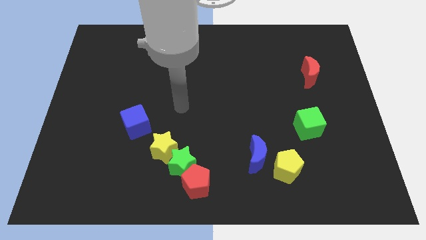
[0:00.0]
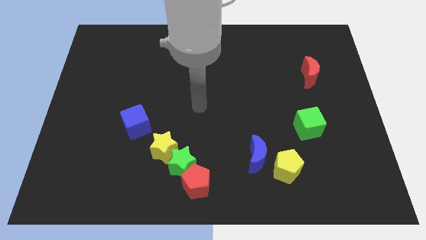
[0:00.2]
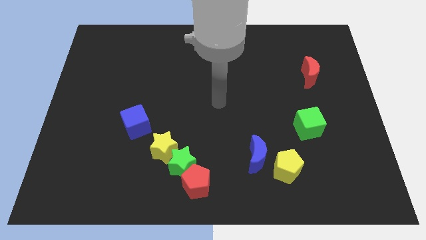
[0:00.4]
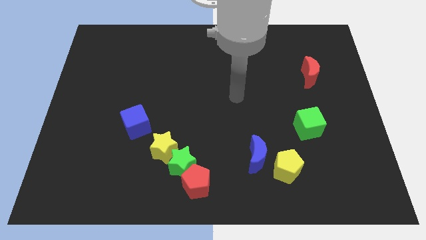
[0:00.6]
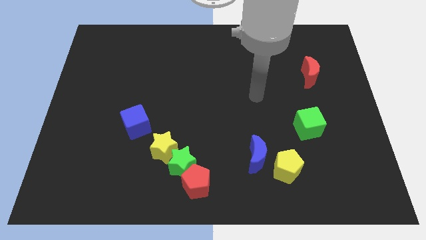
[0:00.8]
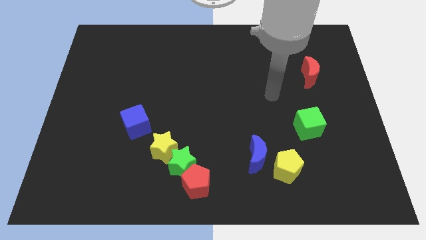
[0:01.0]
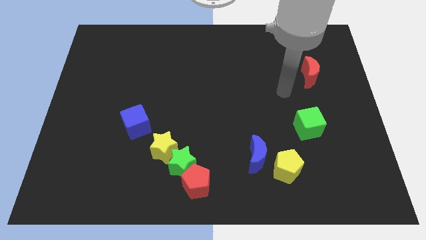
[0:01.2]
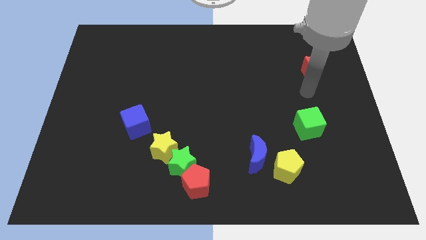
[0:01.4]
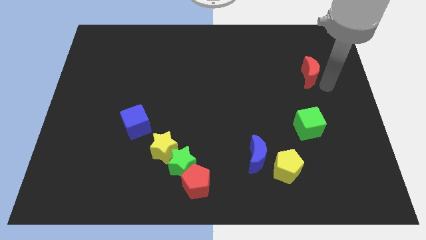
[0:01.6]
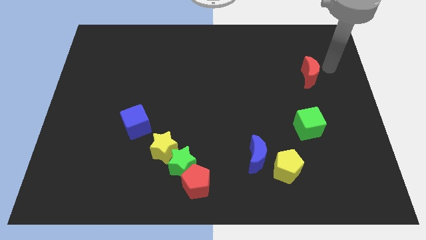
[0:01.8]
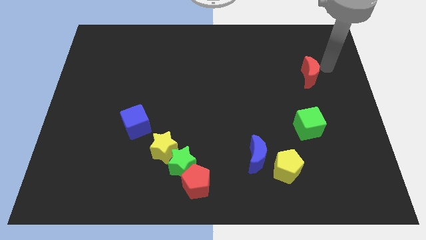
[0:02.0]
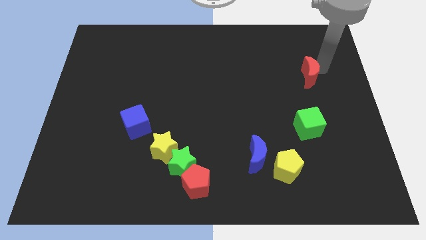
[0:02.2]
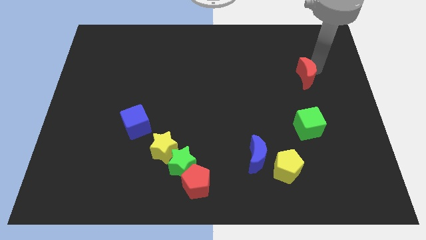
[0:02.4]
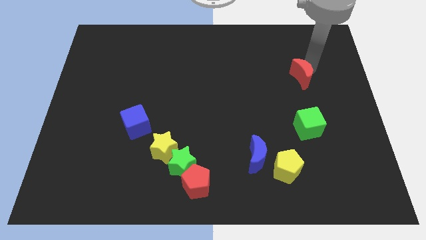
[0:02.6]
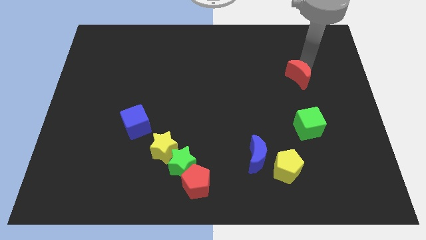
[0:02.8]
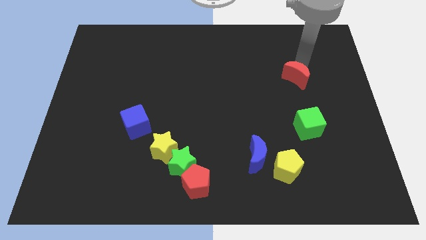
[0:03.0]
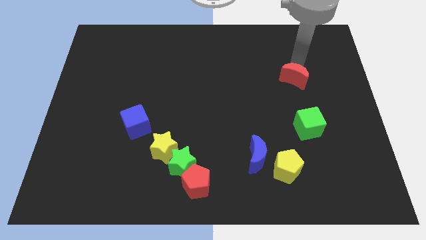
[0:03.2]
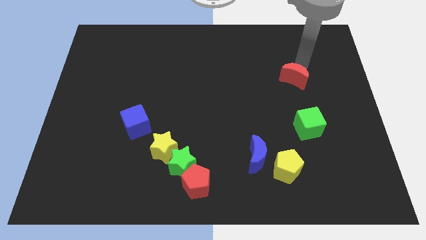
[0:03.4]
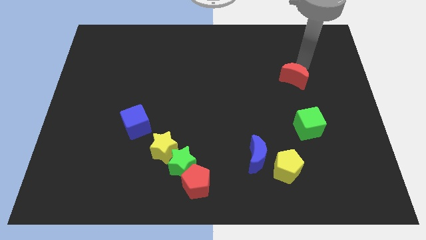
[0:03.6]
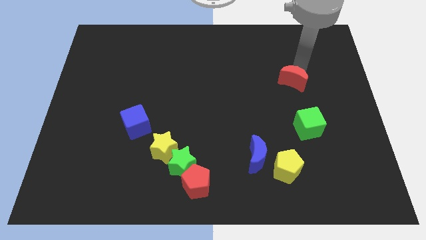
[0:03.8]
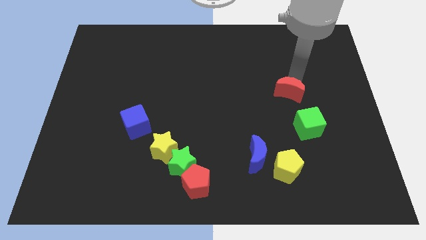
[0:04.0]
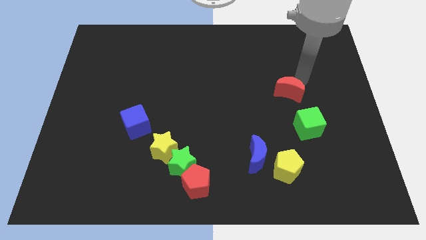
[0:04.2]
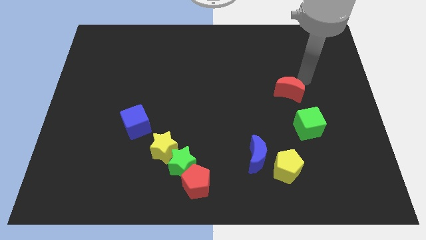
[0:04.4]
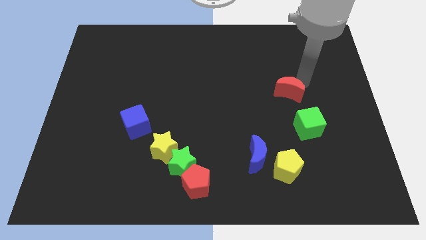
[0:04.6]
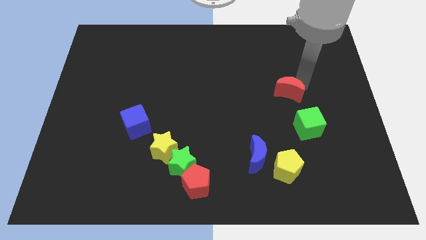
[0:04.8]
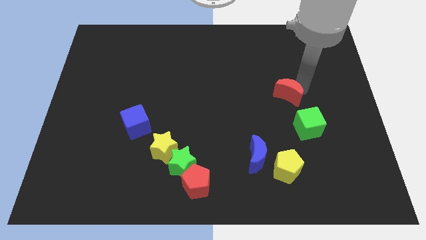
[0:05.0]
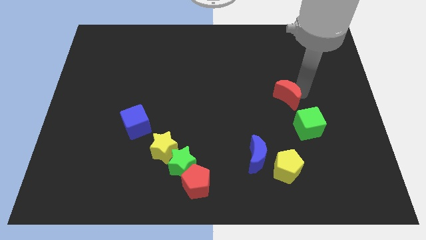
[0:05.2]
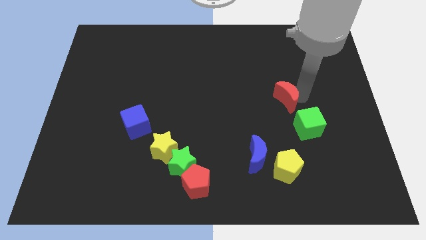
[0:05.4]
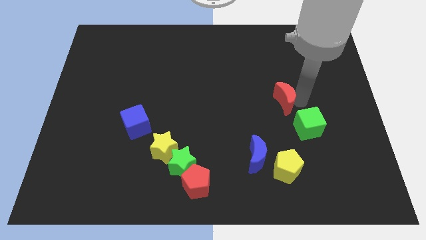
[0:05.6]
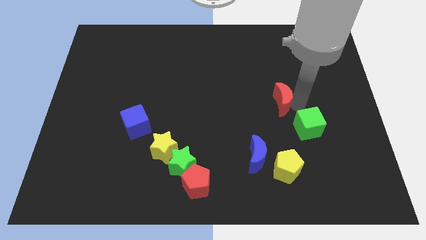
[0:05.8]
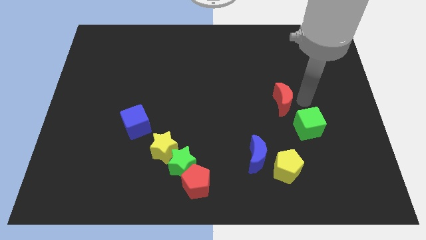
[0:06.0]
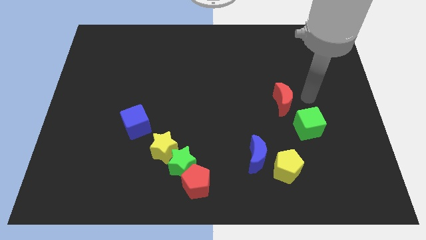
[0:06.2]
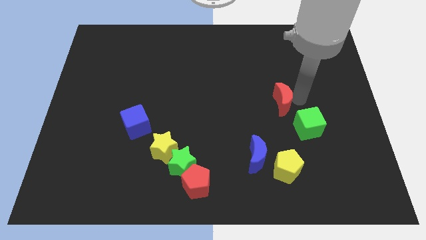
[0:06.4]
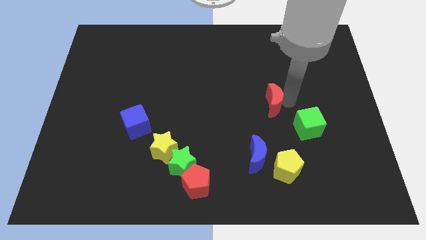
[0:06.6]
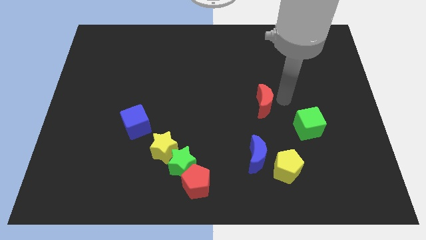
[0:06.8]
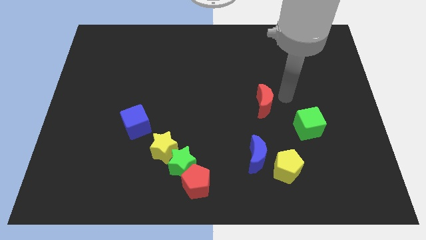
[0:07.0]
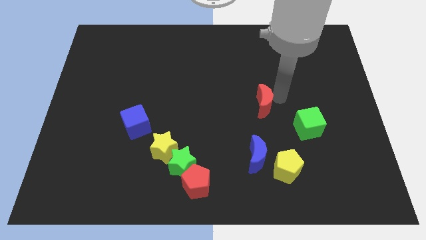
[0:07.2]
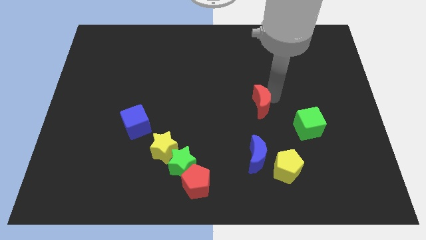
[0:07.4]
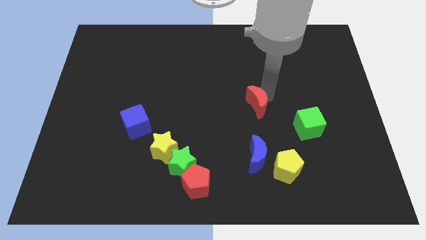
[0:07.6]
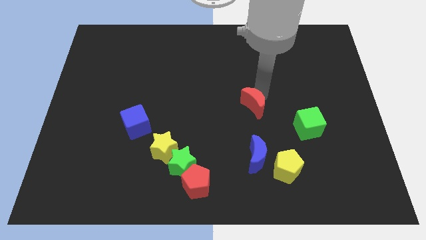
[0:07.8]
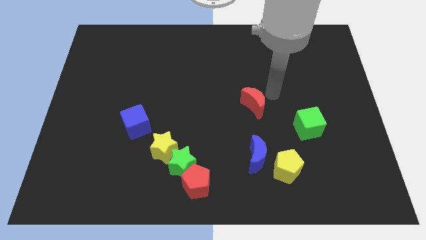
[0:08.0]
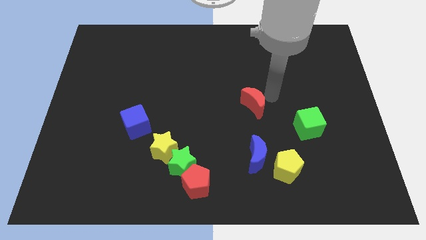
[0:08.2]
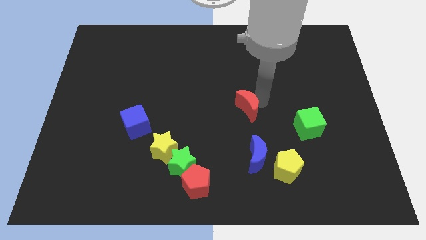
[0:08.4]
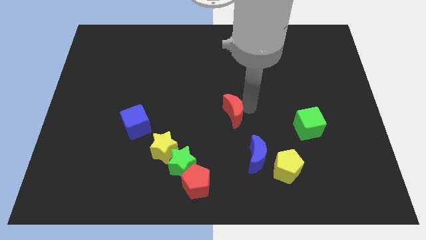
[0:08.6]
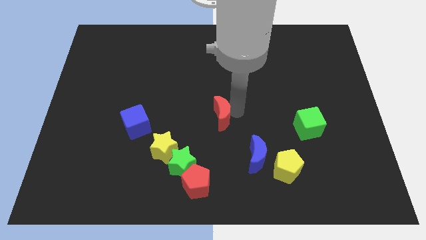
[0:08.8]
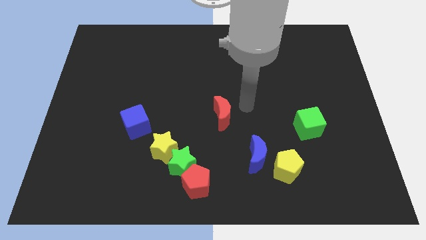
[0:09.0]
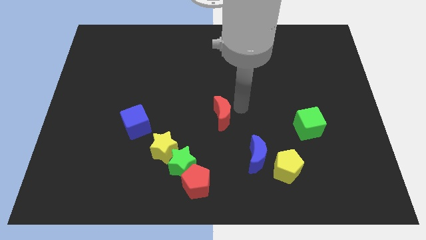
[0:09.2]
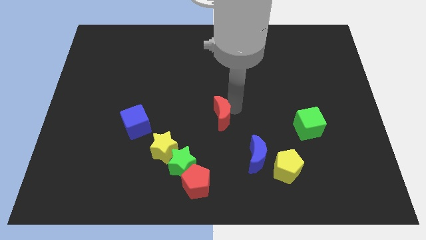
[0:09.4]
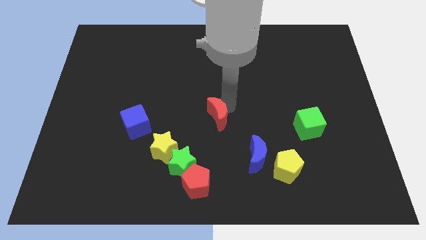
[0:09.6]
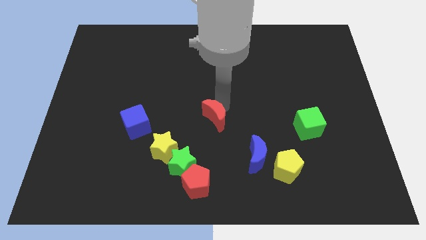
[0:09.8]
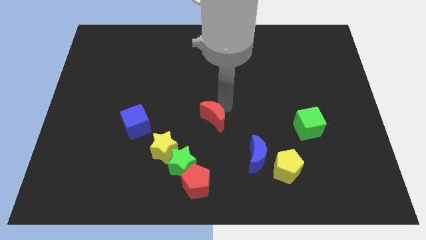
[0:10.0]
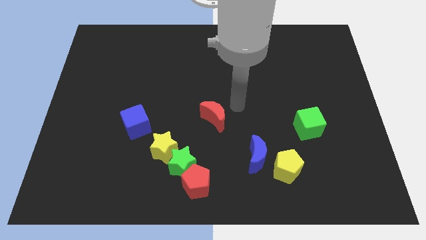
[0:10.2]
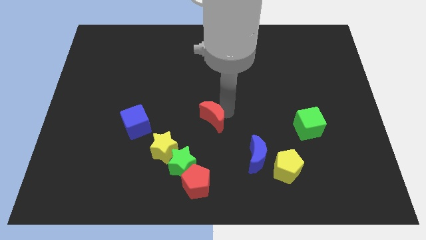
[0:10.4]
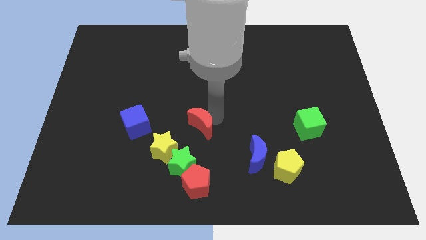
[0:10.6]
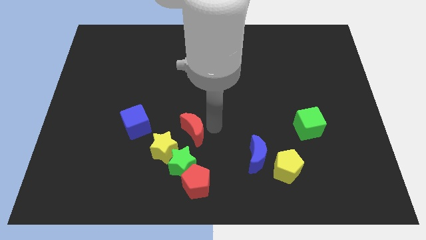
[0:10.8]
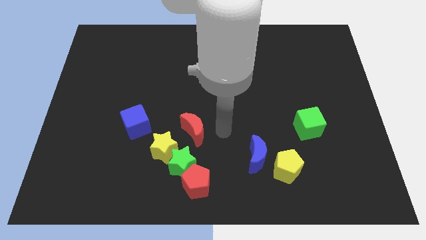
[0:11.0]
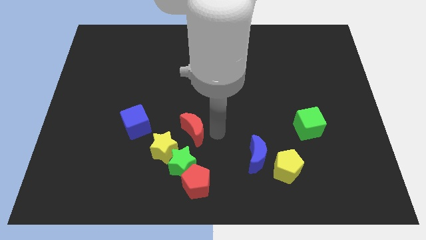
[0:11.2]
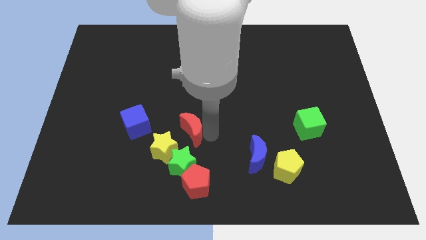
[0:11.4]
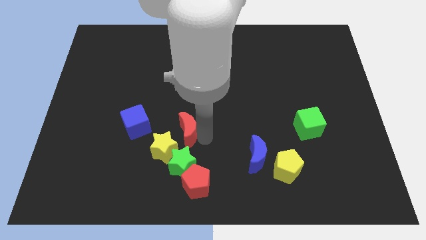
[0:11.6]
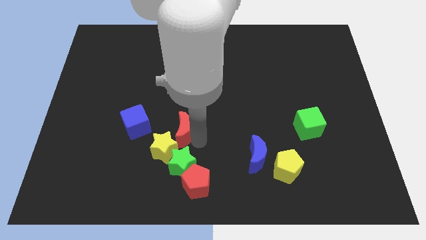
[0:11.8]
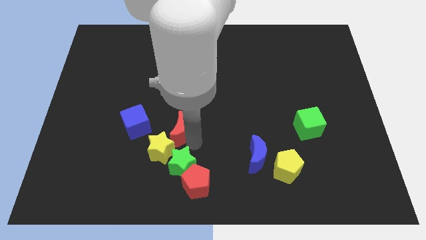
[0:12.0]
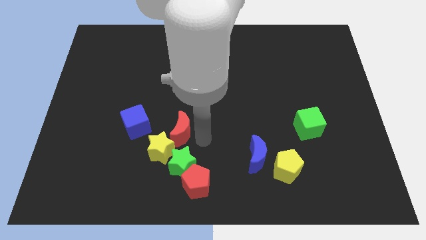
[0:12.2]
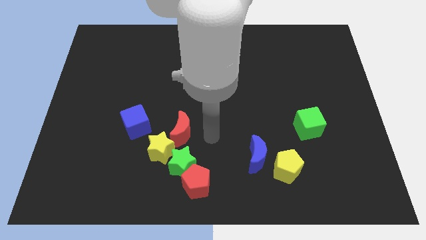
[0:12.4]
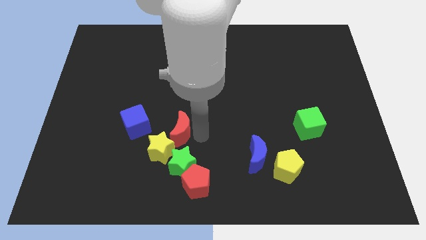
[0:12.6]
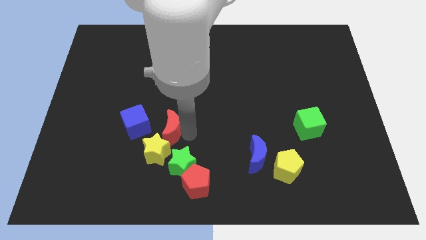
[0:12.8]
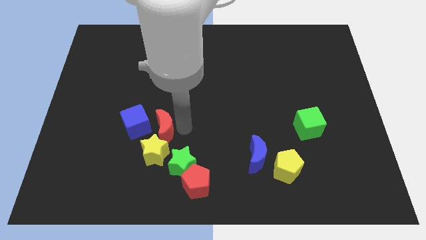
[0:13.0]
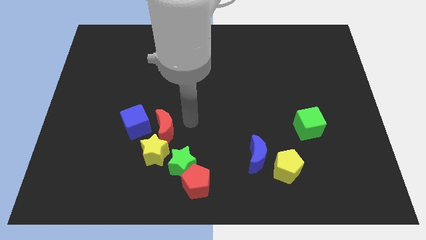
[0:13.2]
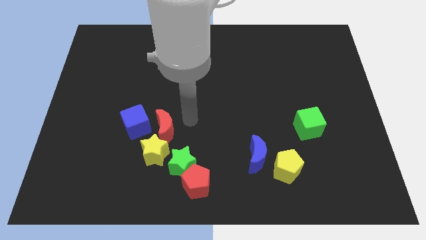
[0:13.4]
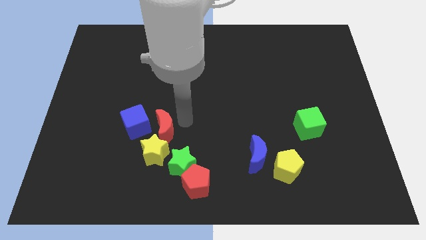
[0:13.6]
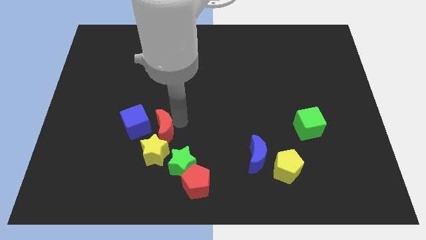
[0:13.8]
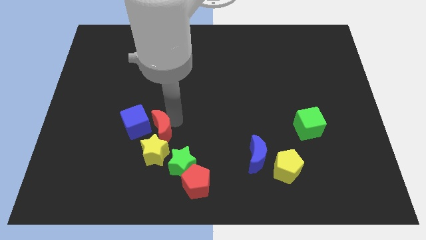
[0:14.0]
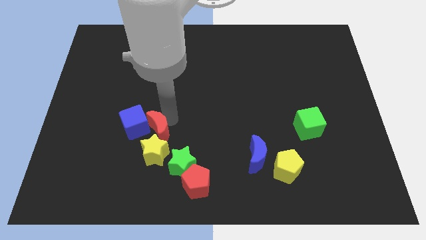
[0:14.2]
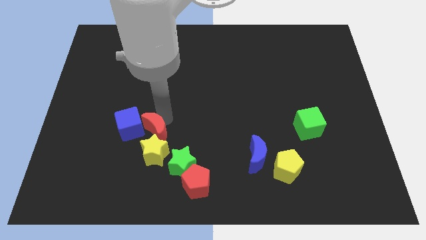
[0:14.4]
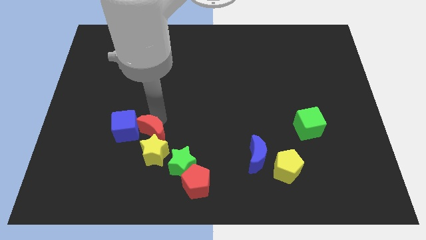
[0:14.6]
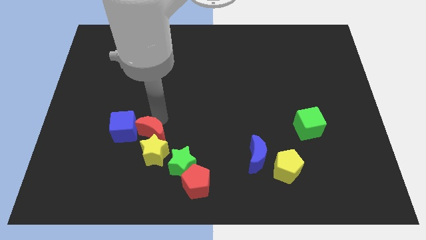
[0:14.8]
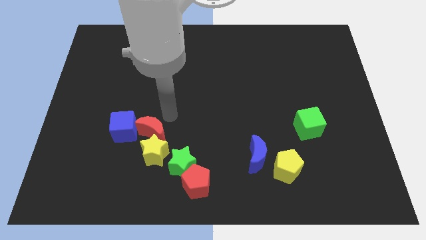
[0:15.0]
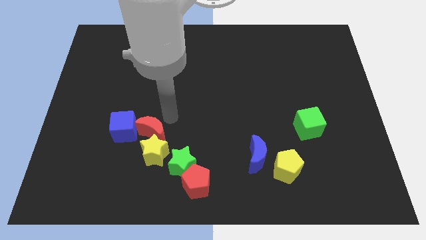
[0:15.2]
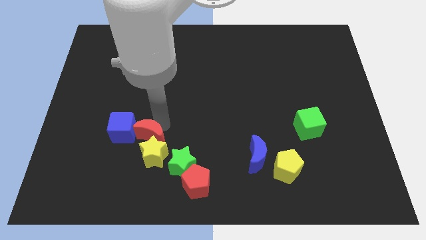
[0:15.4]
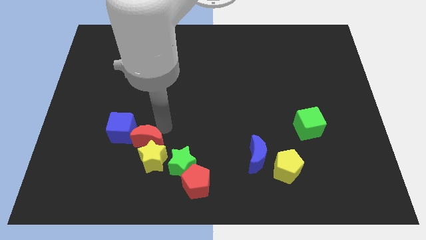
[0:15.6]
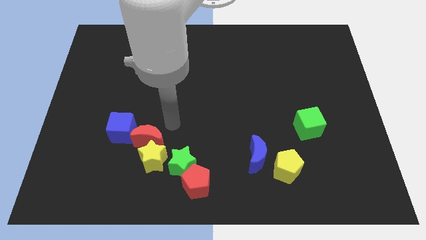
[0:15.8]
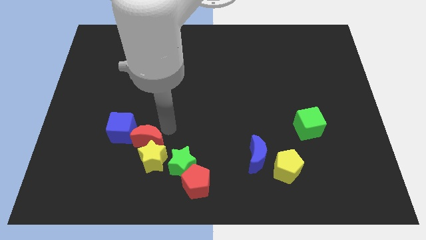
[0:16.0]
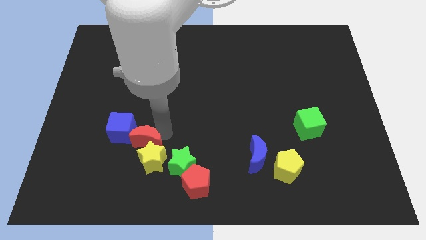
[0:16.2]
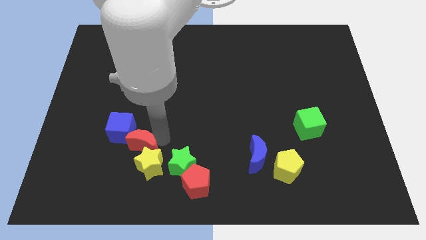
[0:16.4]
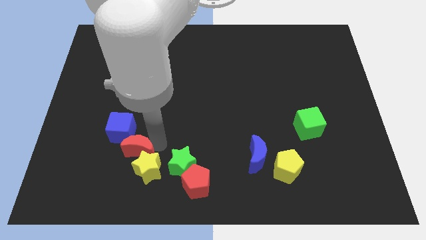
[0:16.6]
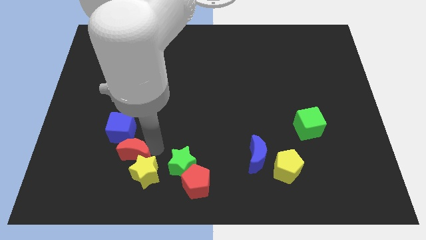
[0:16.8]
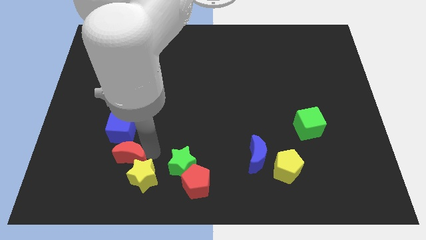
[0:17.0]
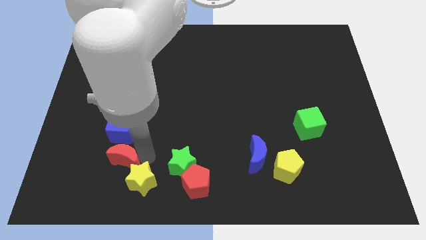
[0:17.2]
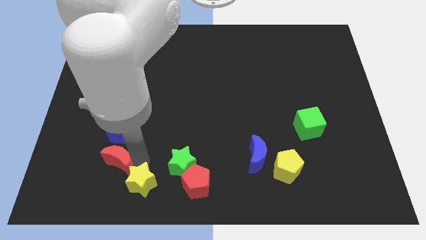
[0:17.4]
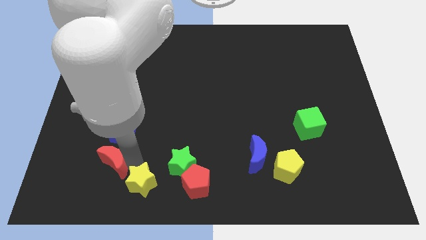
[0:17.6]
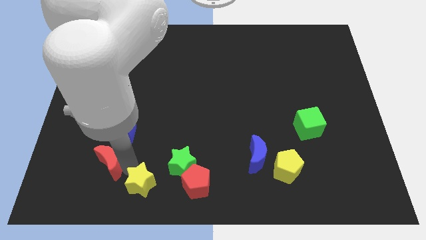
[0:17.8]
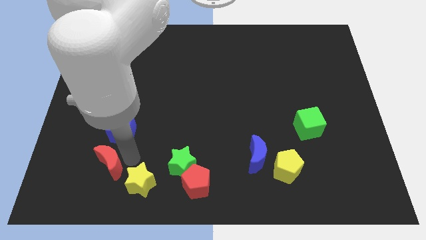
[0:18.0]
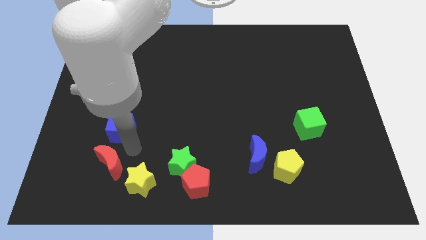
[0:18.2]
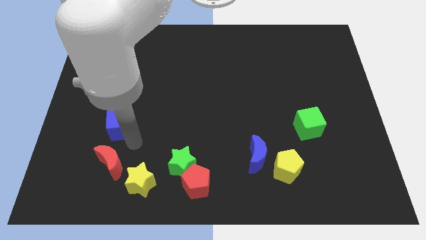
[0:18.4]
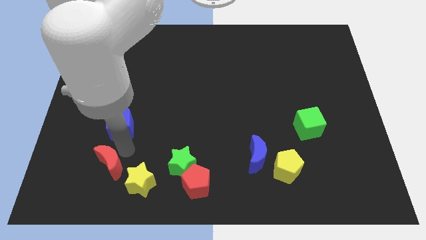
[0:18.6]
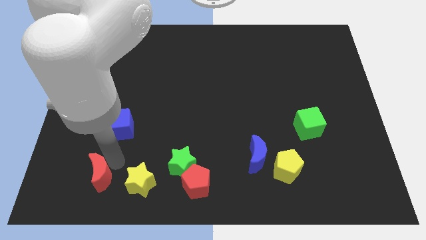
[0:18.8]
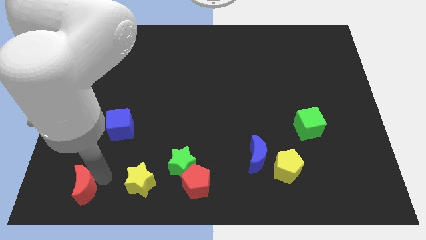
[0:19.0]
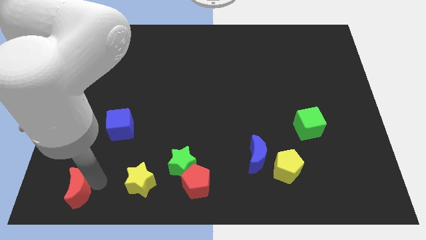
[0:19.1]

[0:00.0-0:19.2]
slide the red moon to the bottom left of the board
